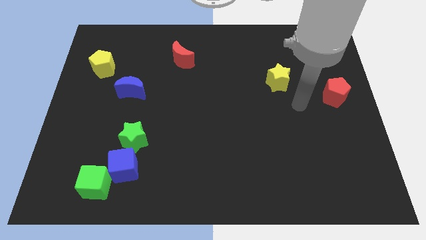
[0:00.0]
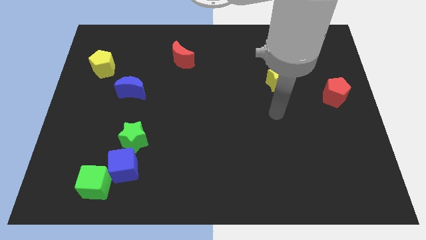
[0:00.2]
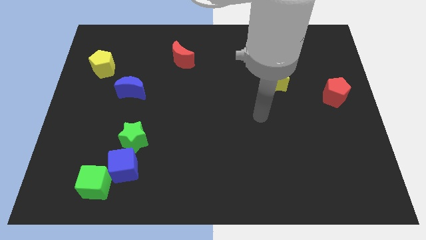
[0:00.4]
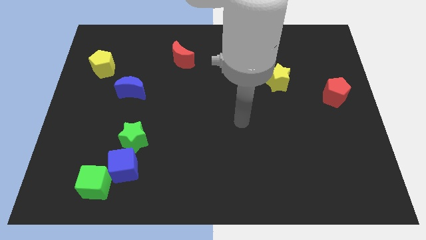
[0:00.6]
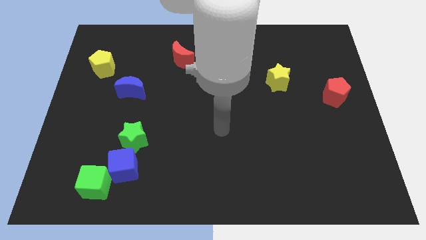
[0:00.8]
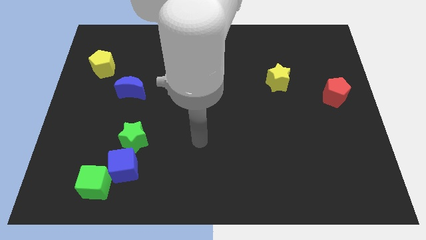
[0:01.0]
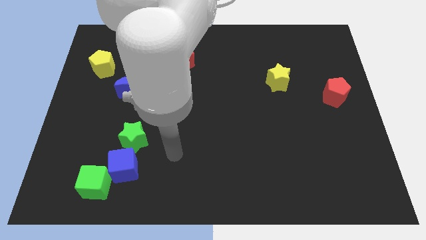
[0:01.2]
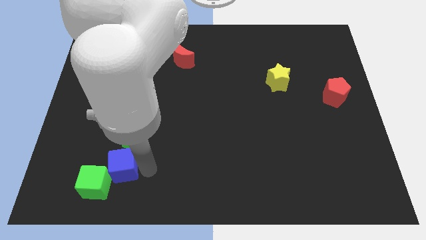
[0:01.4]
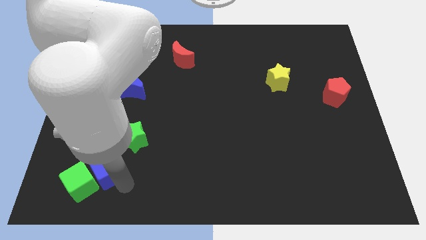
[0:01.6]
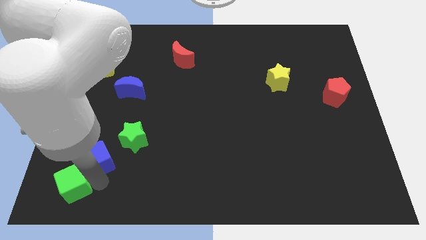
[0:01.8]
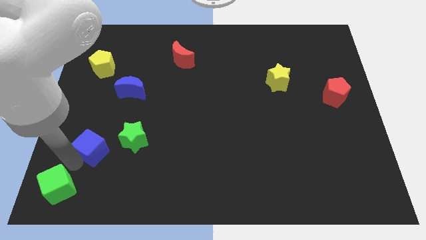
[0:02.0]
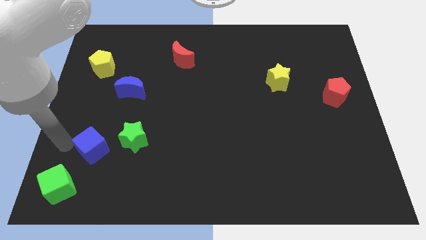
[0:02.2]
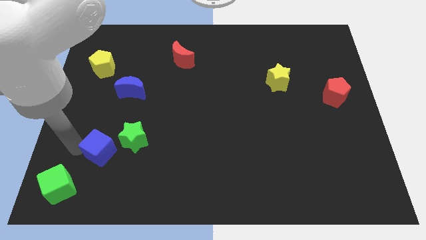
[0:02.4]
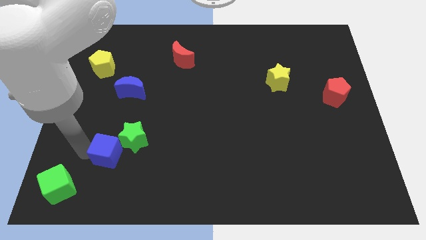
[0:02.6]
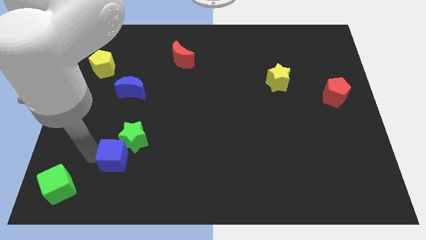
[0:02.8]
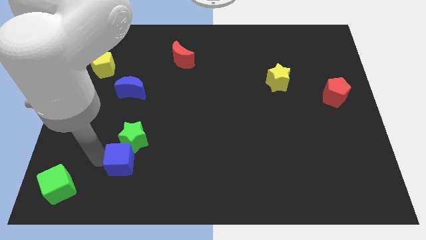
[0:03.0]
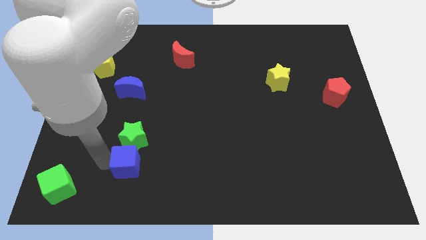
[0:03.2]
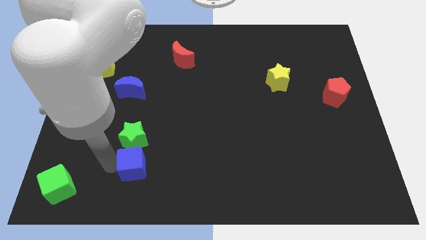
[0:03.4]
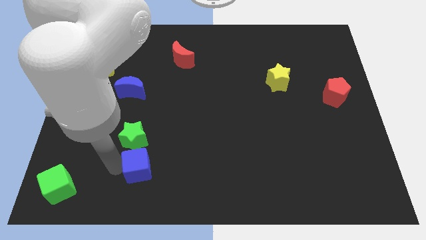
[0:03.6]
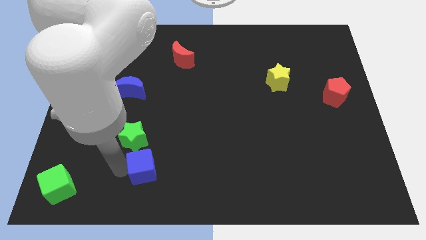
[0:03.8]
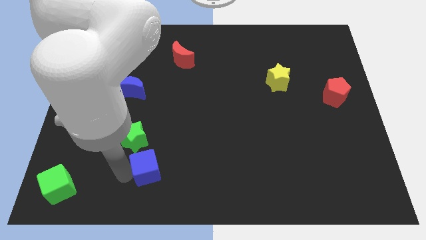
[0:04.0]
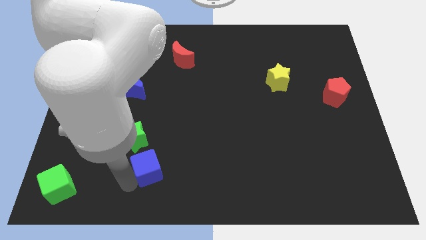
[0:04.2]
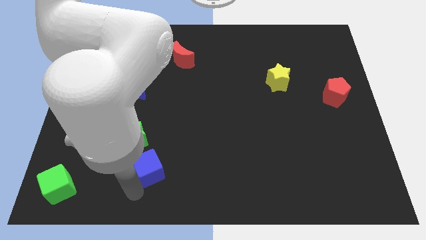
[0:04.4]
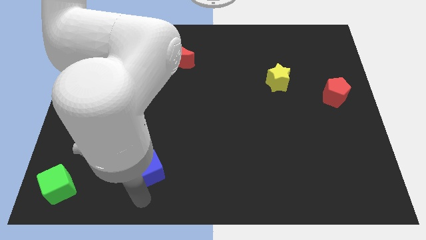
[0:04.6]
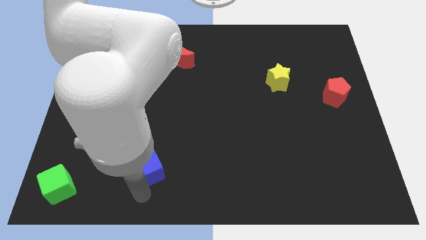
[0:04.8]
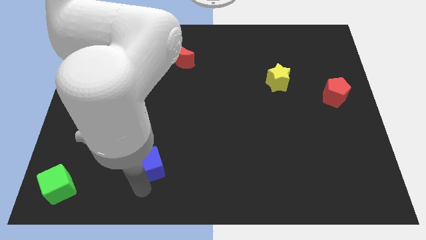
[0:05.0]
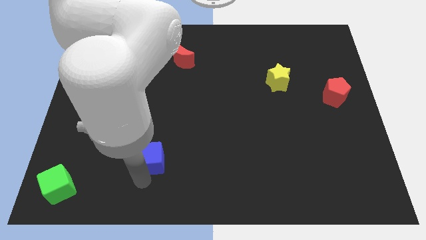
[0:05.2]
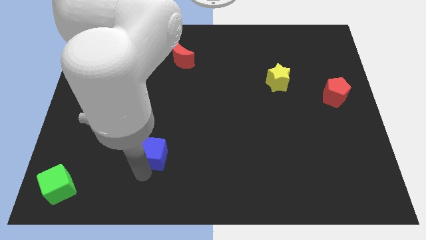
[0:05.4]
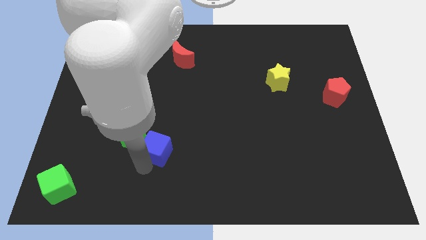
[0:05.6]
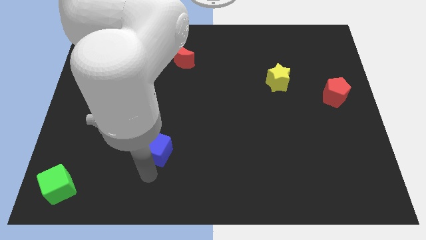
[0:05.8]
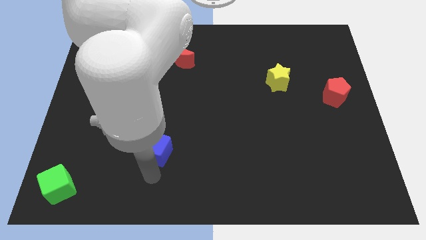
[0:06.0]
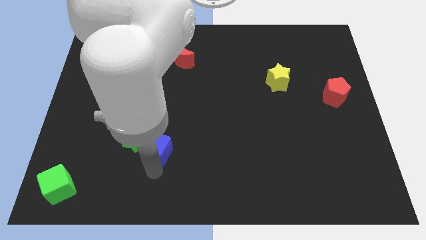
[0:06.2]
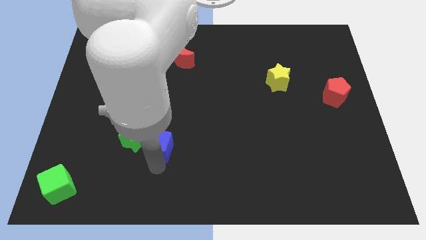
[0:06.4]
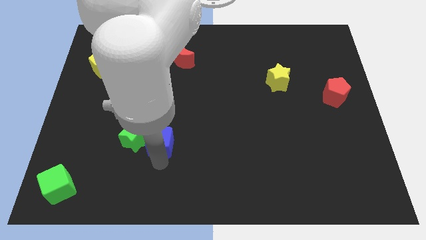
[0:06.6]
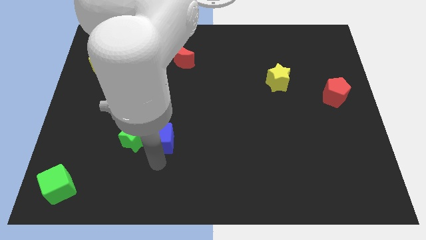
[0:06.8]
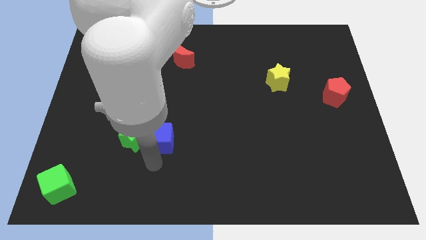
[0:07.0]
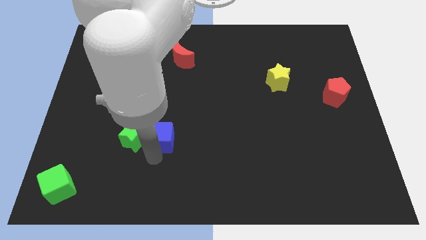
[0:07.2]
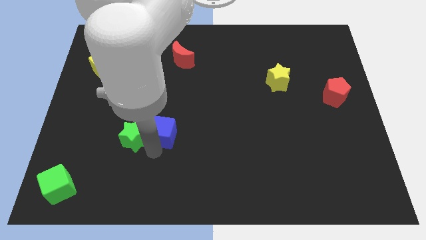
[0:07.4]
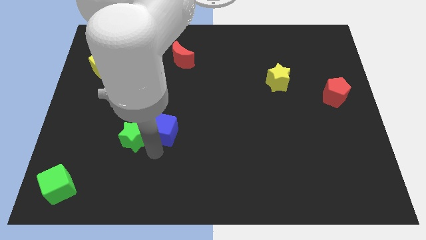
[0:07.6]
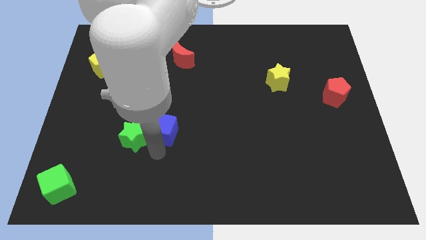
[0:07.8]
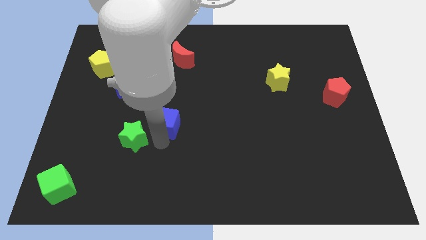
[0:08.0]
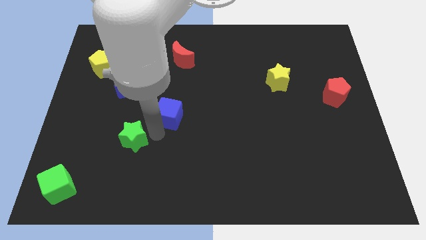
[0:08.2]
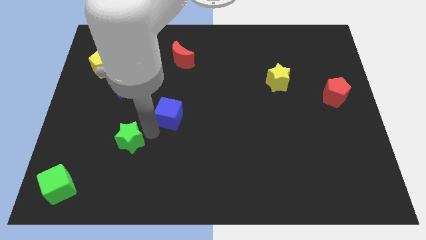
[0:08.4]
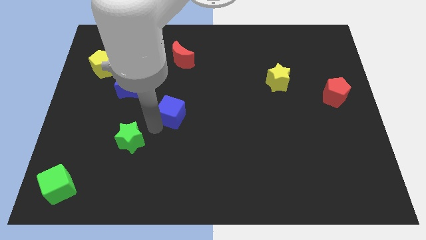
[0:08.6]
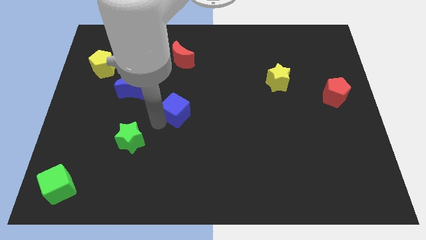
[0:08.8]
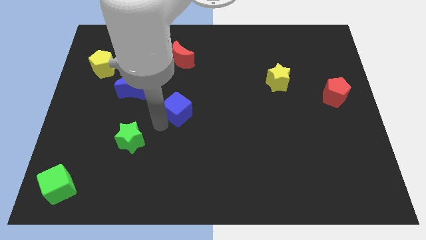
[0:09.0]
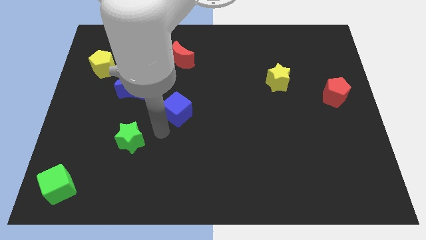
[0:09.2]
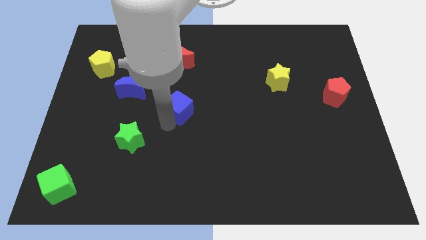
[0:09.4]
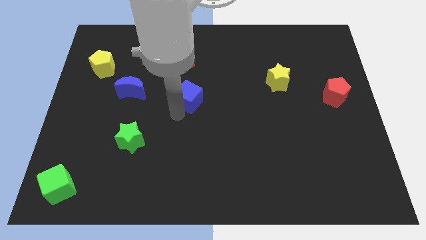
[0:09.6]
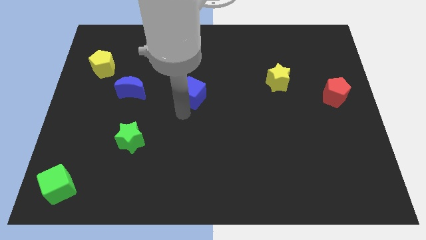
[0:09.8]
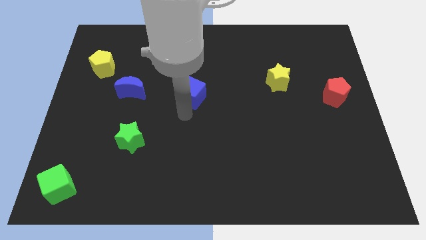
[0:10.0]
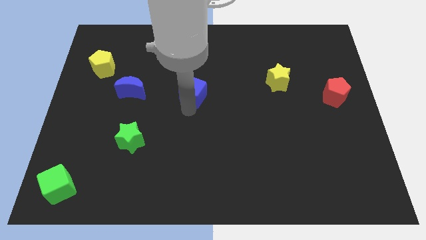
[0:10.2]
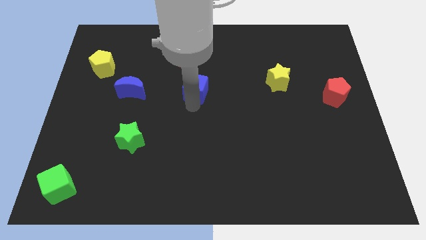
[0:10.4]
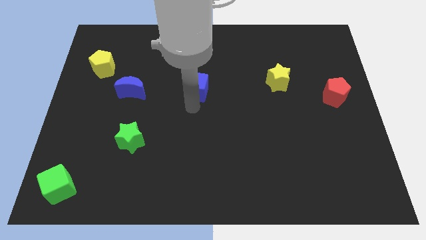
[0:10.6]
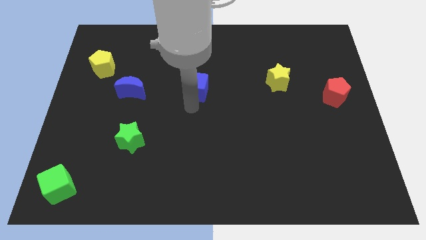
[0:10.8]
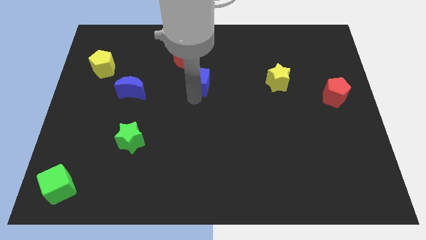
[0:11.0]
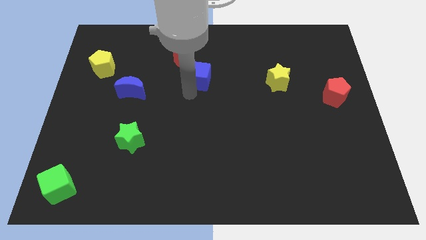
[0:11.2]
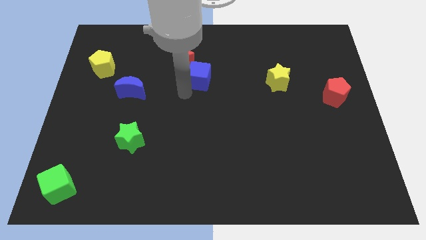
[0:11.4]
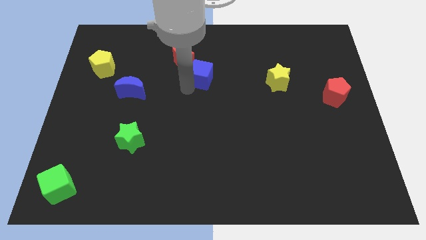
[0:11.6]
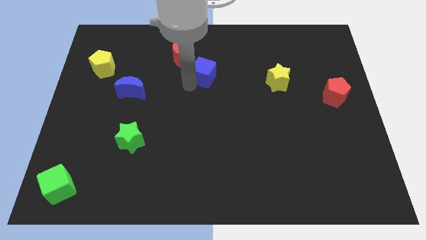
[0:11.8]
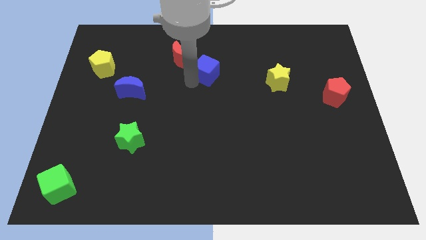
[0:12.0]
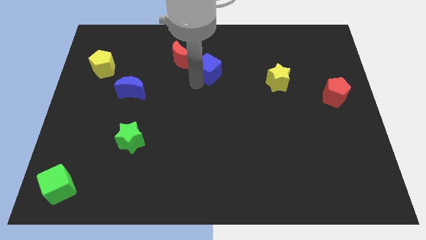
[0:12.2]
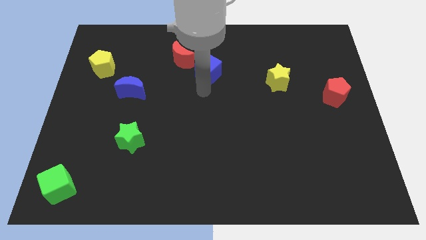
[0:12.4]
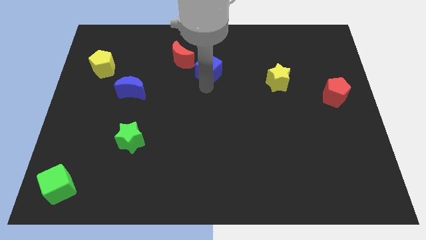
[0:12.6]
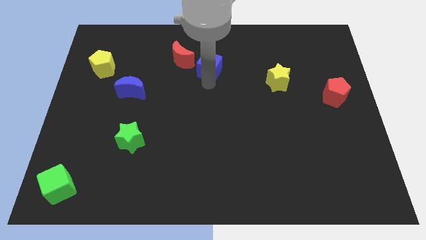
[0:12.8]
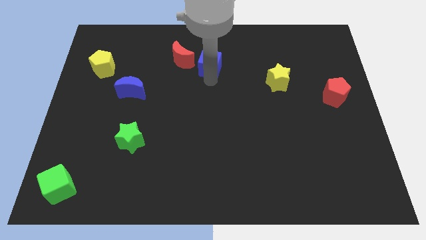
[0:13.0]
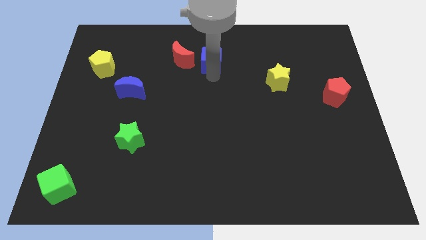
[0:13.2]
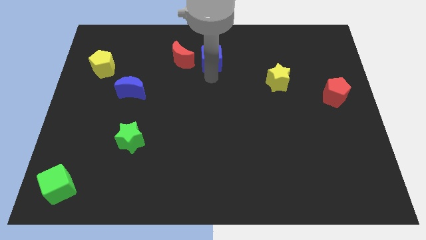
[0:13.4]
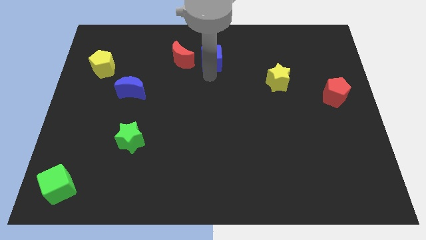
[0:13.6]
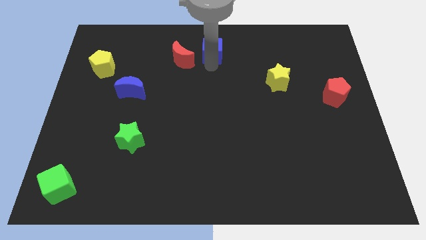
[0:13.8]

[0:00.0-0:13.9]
move the blue cube to the top side
